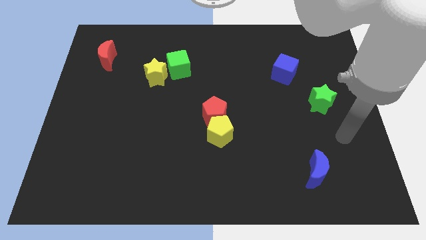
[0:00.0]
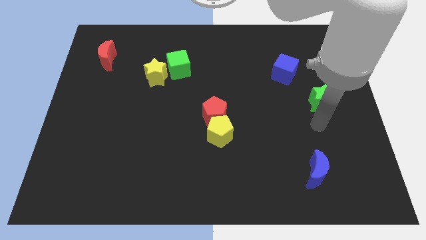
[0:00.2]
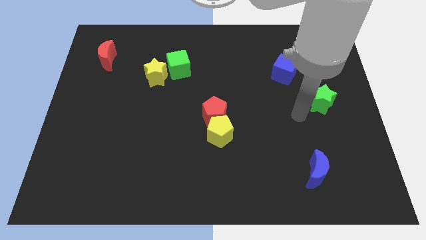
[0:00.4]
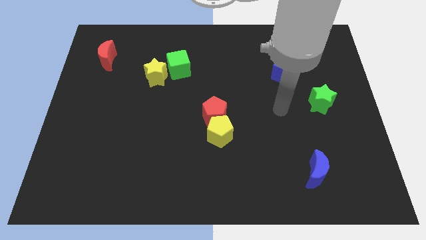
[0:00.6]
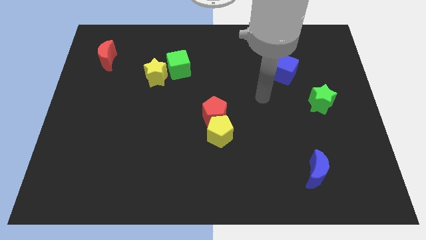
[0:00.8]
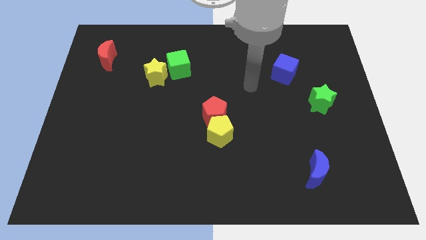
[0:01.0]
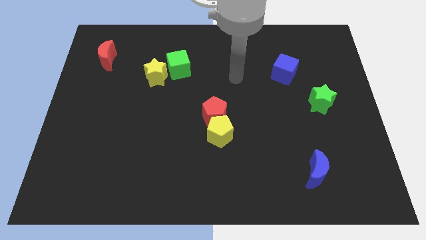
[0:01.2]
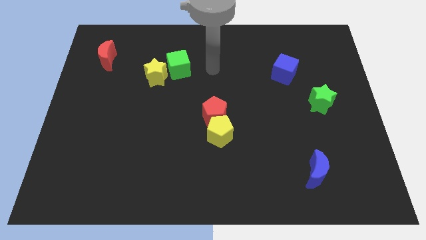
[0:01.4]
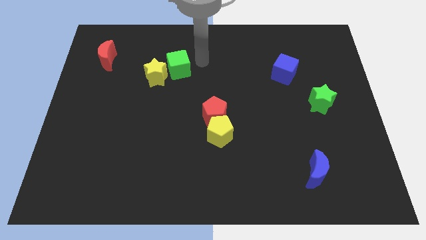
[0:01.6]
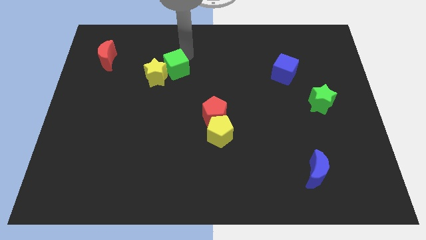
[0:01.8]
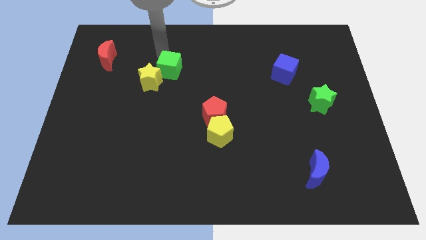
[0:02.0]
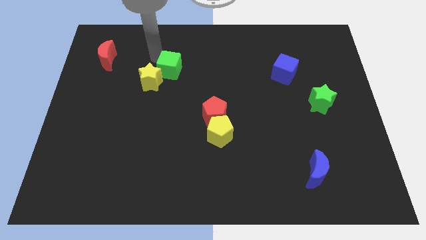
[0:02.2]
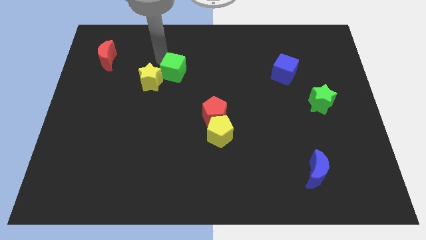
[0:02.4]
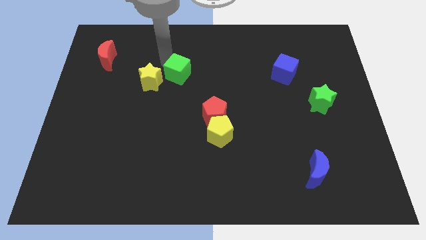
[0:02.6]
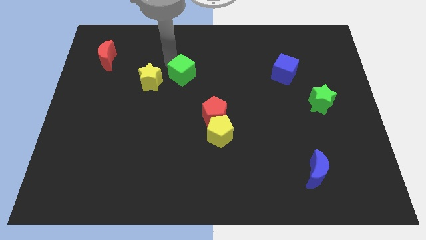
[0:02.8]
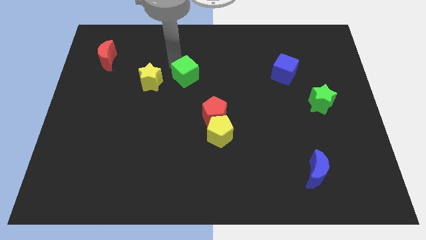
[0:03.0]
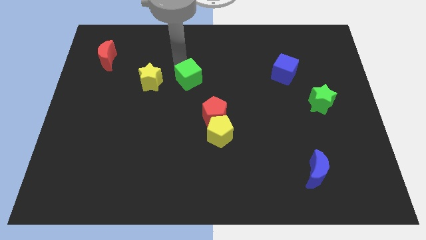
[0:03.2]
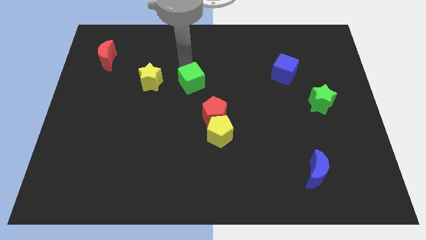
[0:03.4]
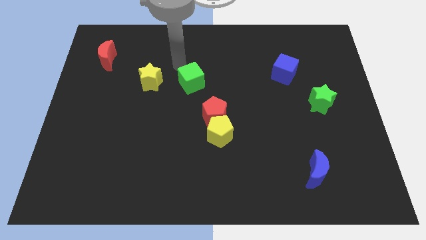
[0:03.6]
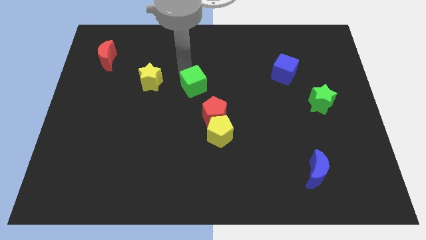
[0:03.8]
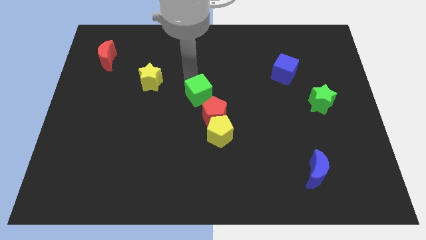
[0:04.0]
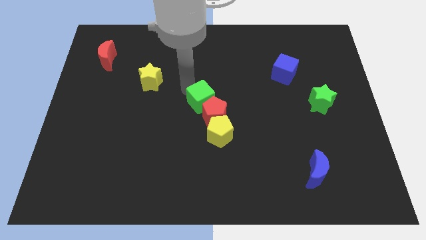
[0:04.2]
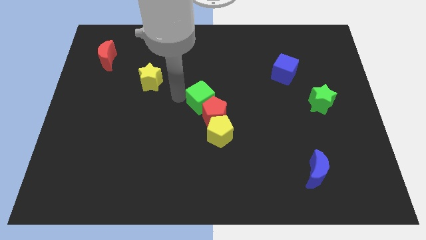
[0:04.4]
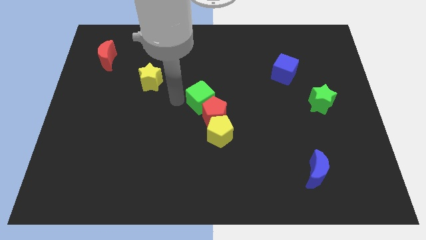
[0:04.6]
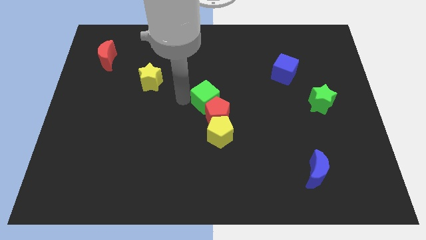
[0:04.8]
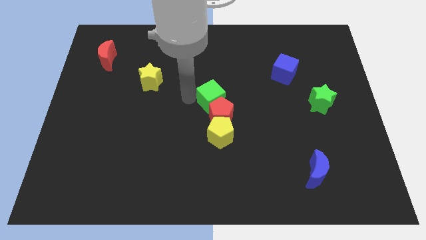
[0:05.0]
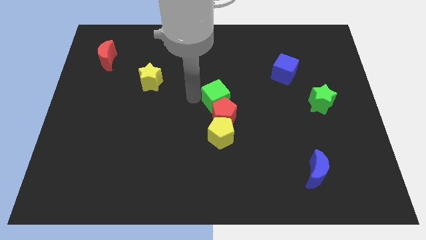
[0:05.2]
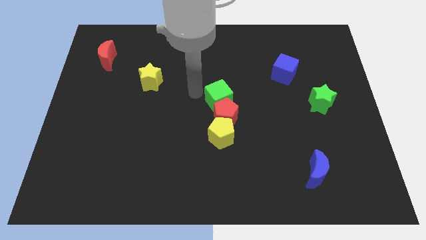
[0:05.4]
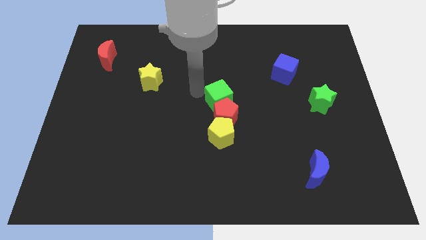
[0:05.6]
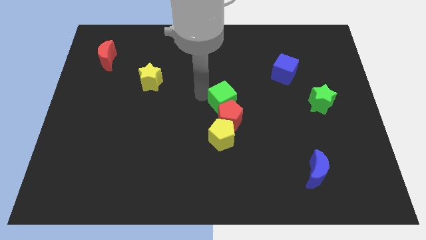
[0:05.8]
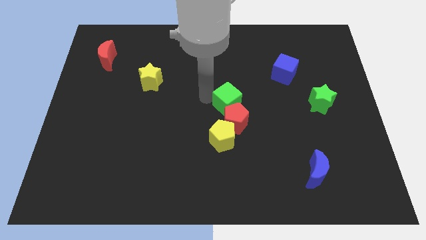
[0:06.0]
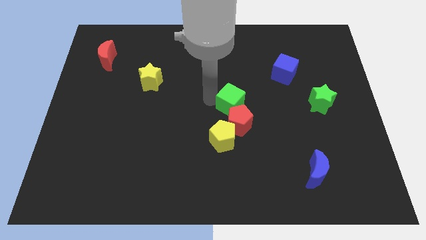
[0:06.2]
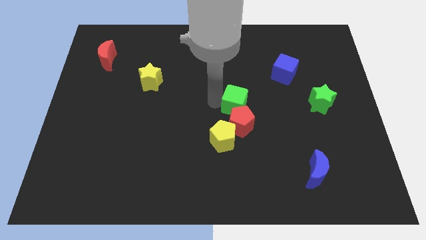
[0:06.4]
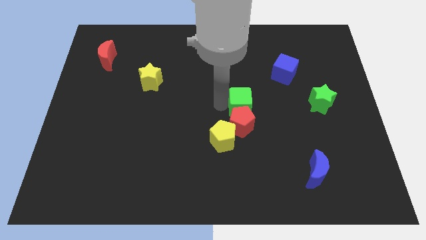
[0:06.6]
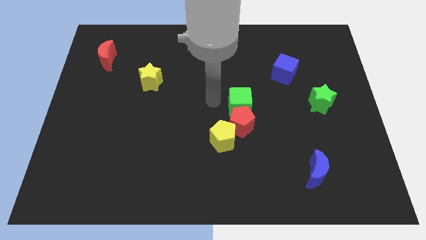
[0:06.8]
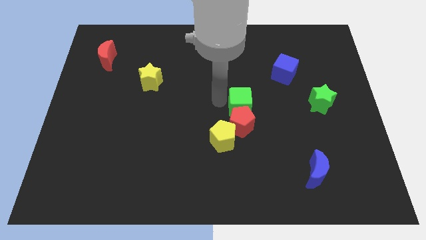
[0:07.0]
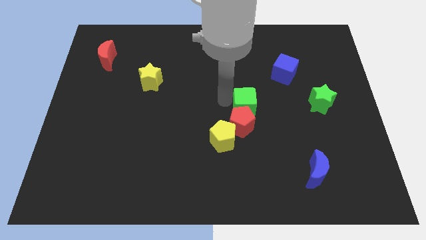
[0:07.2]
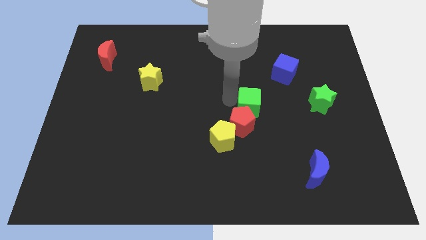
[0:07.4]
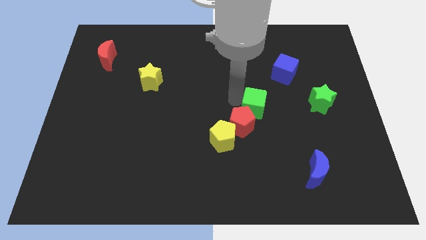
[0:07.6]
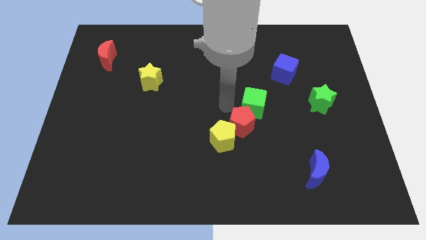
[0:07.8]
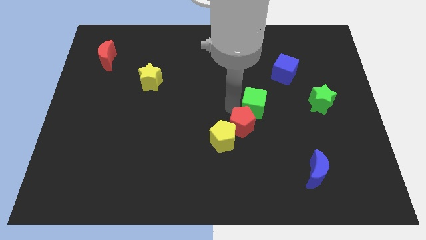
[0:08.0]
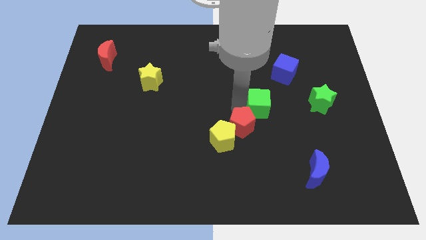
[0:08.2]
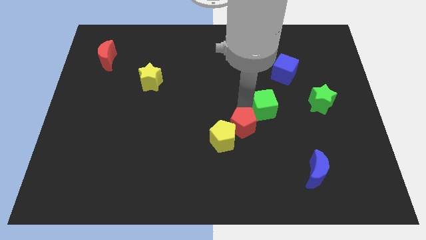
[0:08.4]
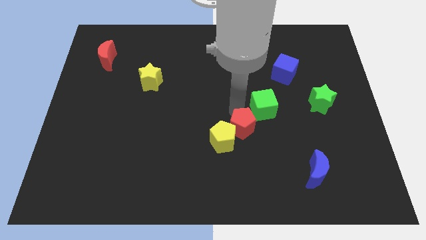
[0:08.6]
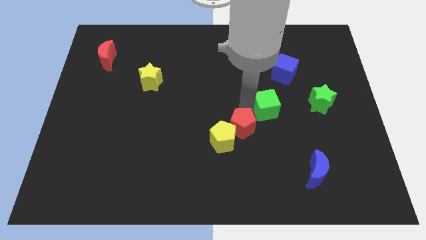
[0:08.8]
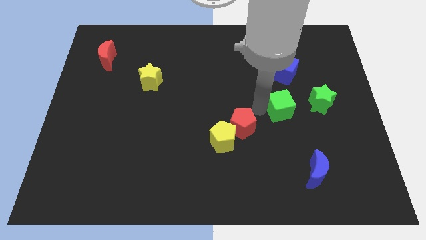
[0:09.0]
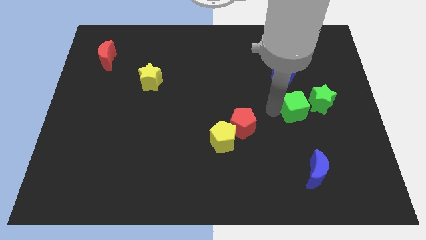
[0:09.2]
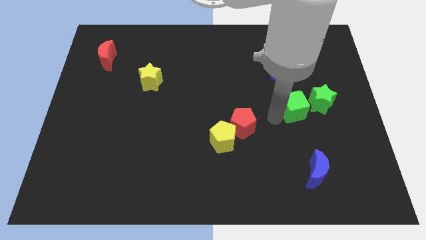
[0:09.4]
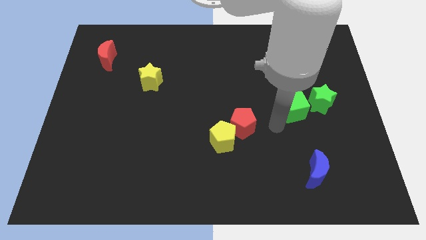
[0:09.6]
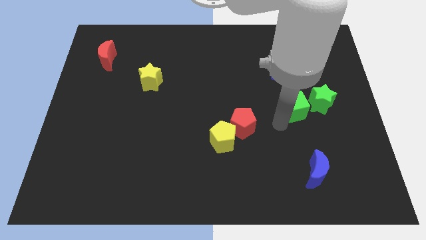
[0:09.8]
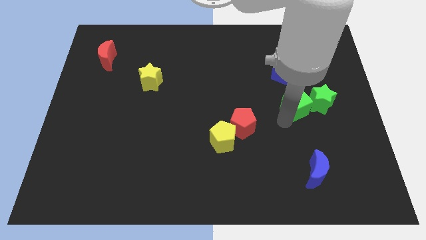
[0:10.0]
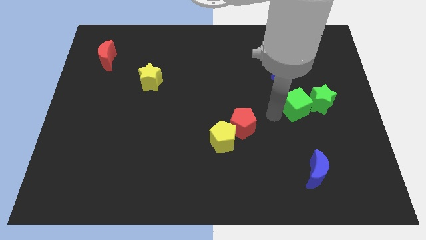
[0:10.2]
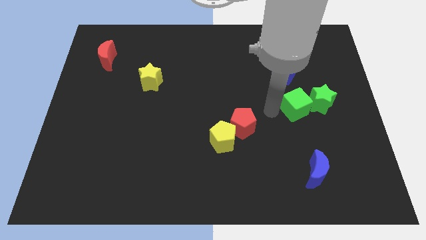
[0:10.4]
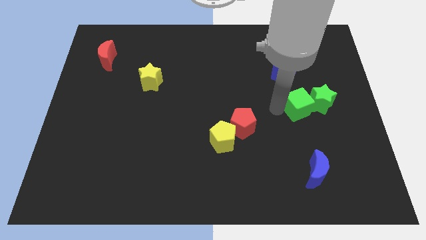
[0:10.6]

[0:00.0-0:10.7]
put the green cube to the green star

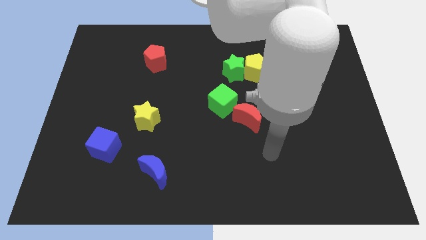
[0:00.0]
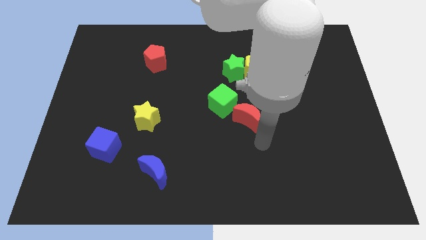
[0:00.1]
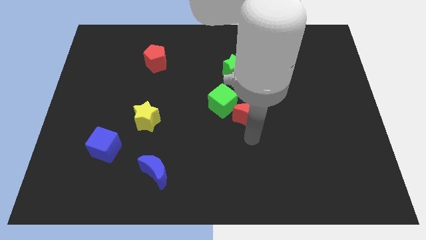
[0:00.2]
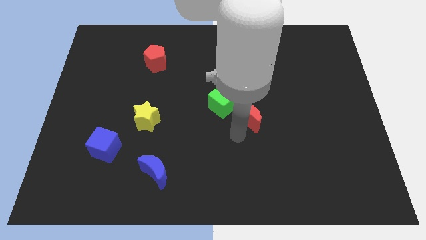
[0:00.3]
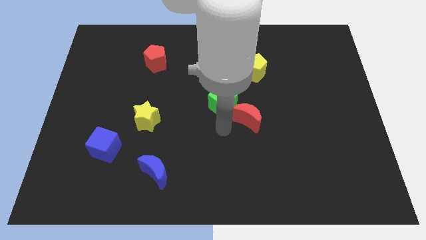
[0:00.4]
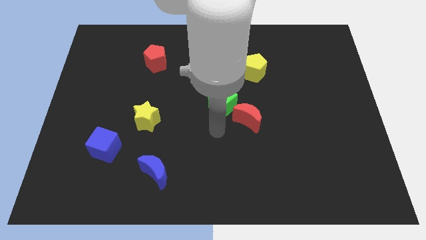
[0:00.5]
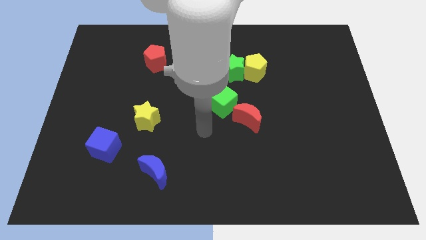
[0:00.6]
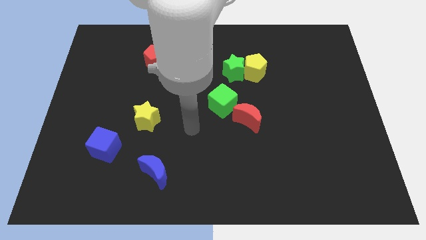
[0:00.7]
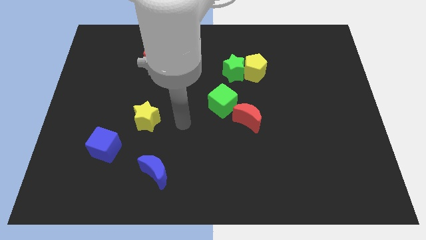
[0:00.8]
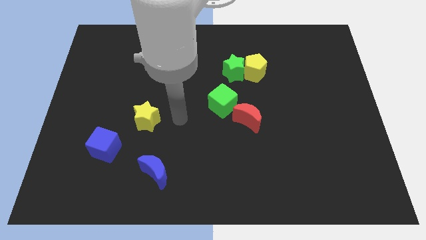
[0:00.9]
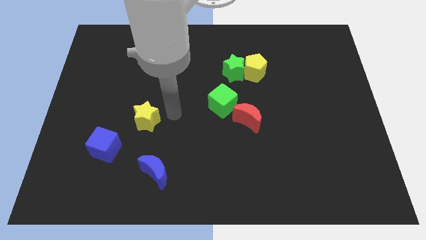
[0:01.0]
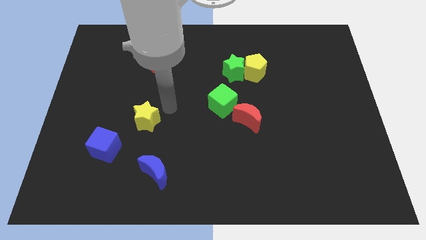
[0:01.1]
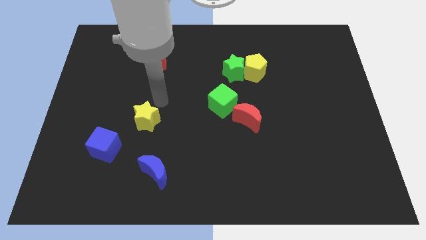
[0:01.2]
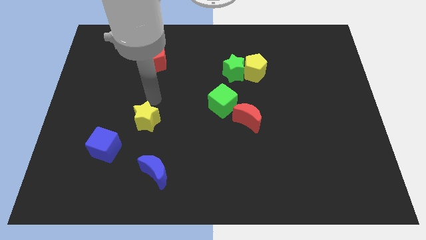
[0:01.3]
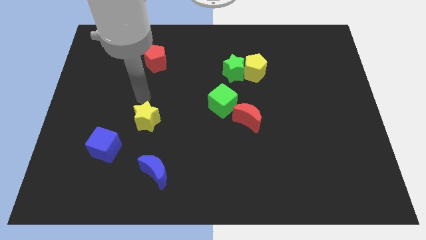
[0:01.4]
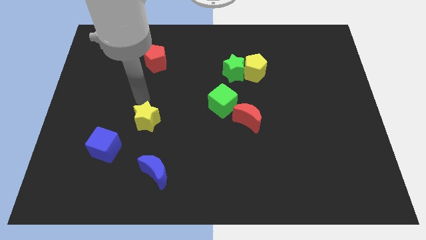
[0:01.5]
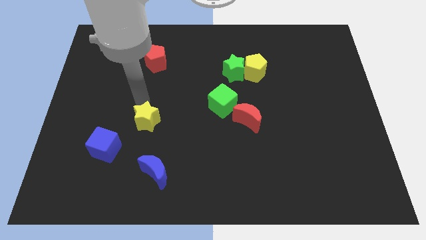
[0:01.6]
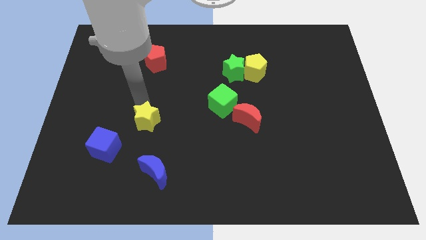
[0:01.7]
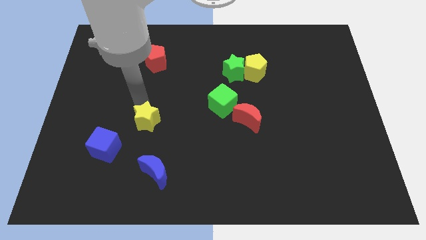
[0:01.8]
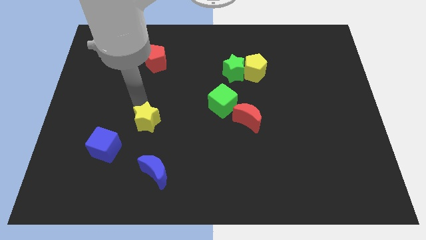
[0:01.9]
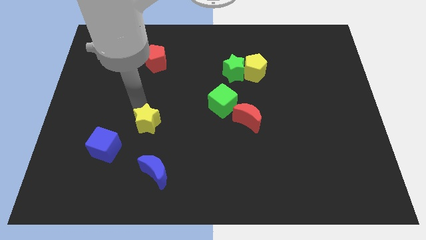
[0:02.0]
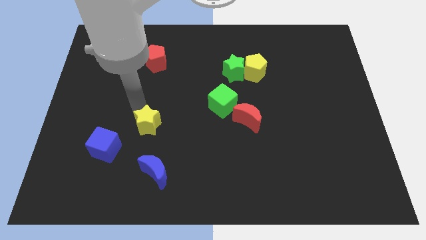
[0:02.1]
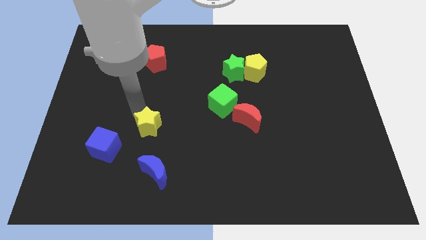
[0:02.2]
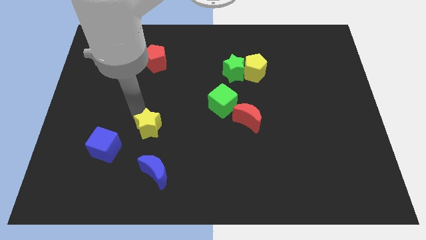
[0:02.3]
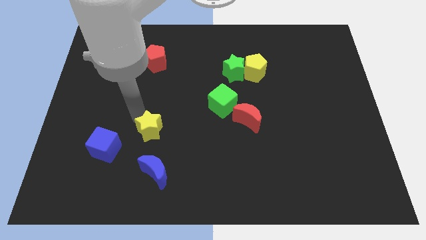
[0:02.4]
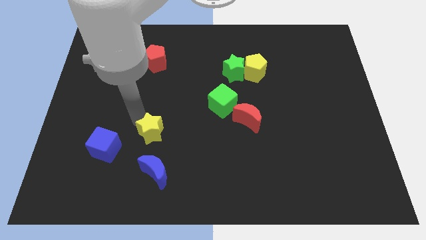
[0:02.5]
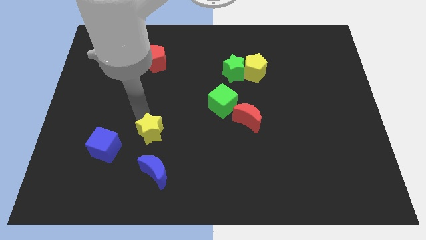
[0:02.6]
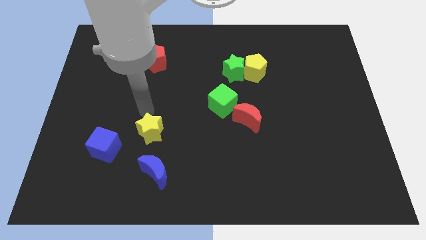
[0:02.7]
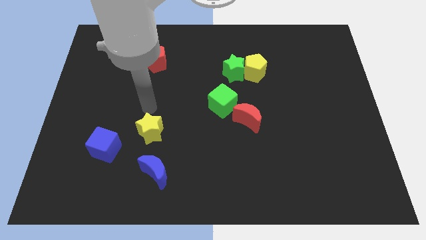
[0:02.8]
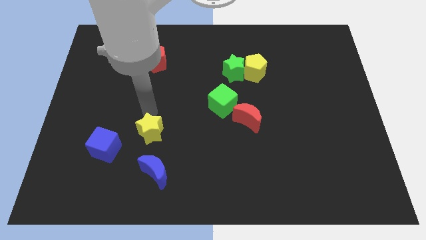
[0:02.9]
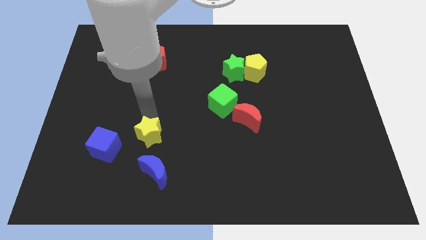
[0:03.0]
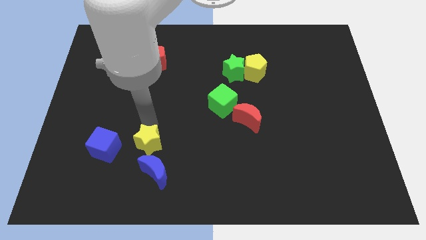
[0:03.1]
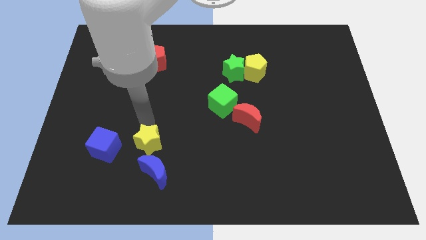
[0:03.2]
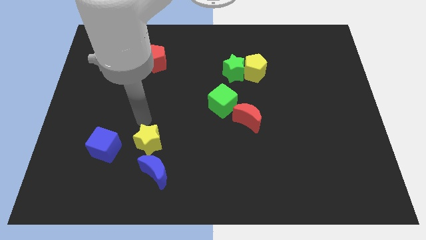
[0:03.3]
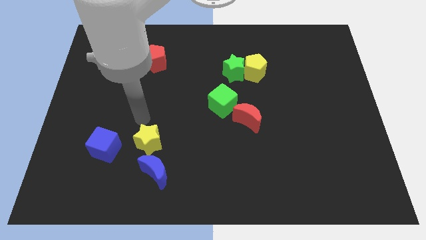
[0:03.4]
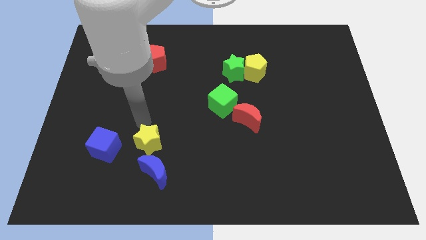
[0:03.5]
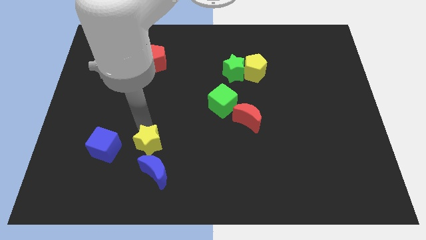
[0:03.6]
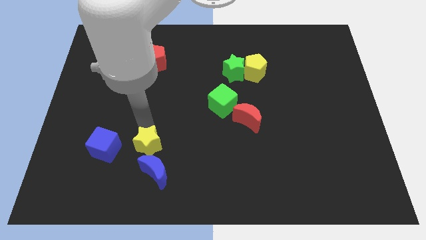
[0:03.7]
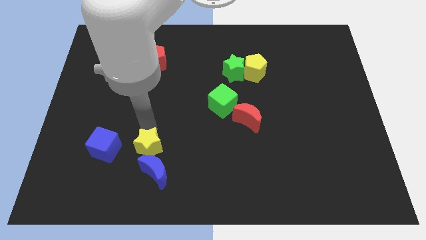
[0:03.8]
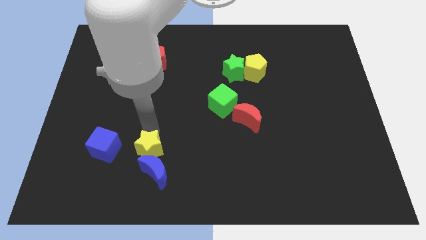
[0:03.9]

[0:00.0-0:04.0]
move the yellow star next to the blue moon
